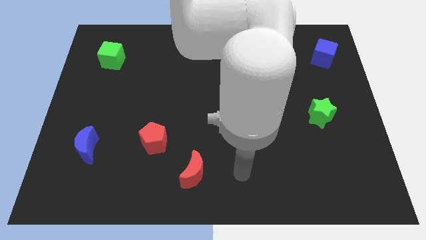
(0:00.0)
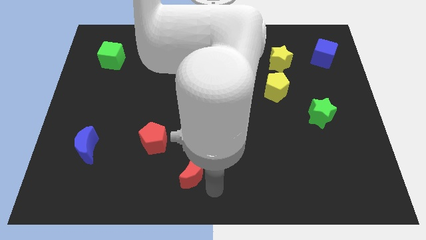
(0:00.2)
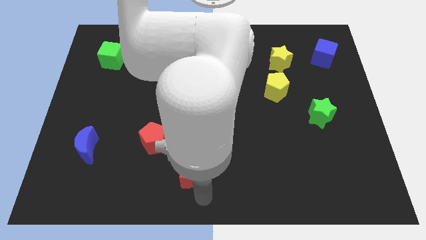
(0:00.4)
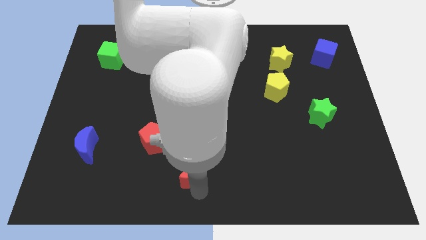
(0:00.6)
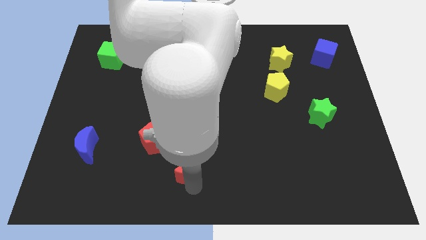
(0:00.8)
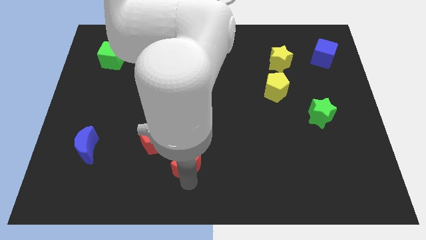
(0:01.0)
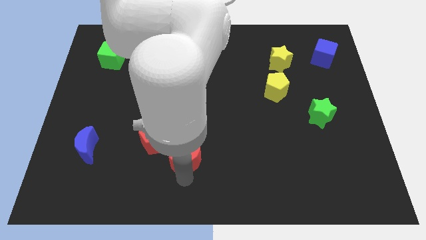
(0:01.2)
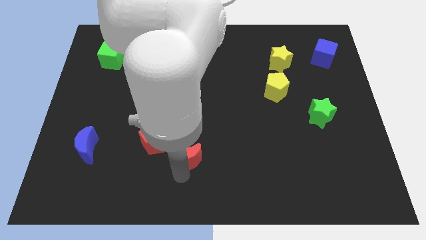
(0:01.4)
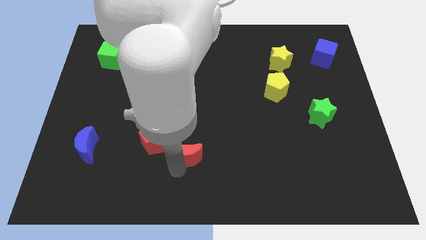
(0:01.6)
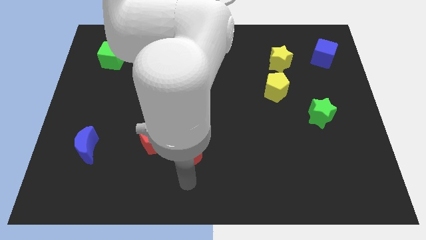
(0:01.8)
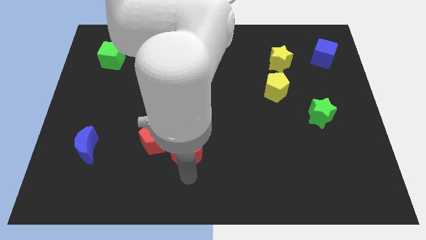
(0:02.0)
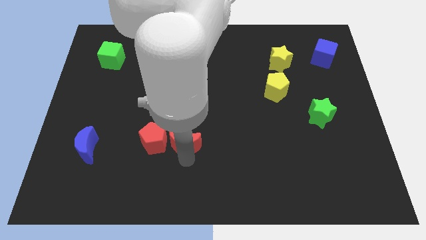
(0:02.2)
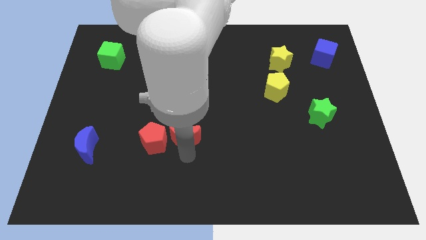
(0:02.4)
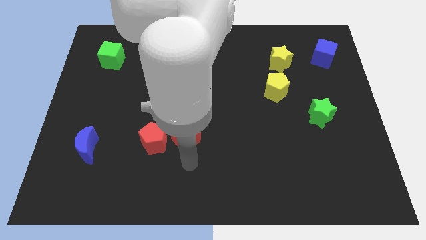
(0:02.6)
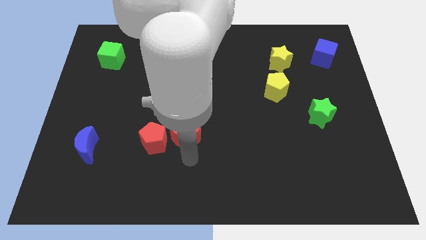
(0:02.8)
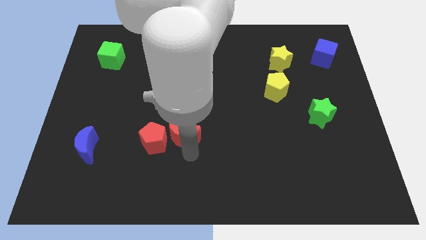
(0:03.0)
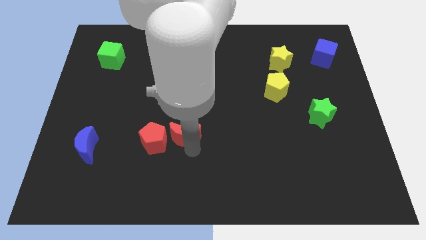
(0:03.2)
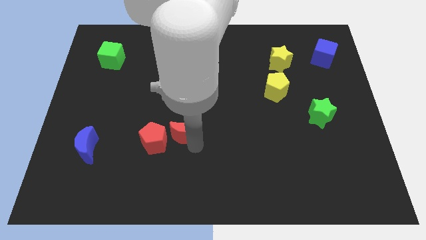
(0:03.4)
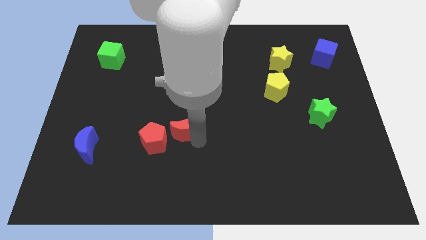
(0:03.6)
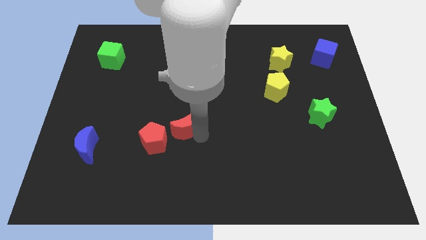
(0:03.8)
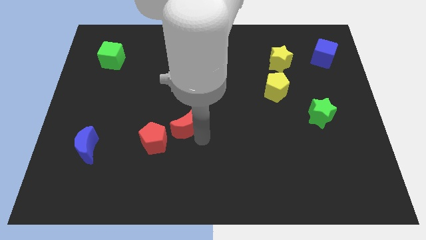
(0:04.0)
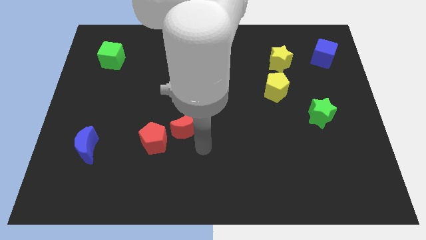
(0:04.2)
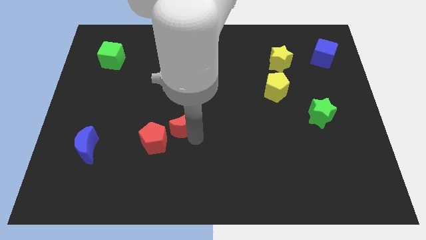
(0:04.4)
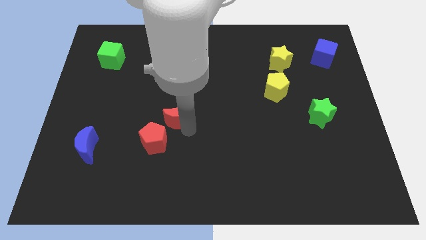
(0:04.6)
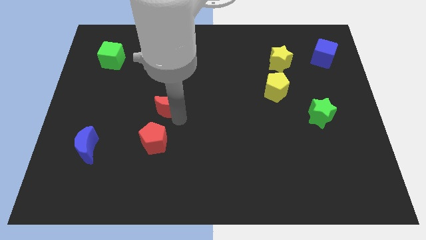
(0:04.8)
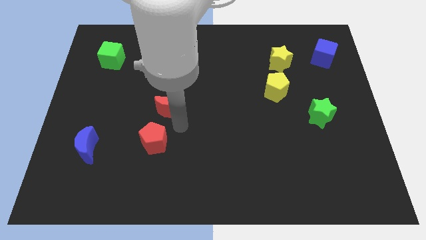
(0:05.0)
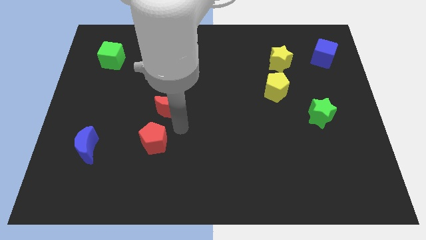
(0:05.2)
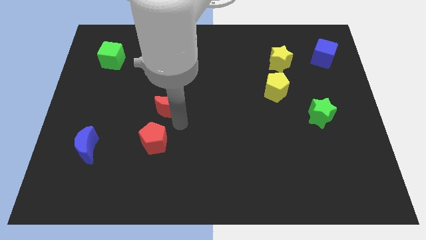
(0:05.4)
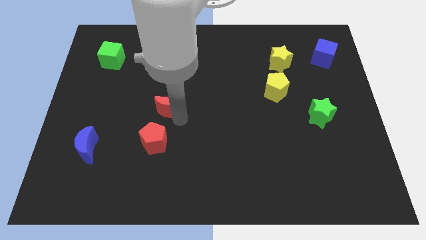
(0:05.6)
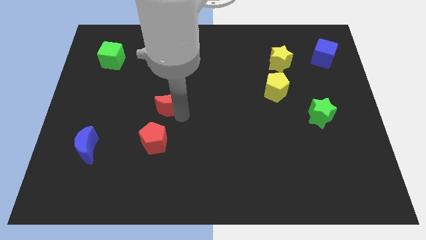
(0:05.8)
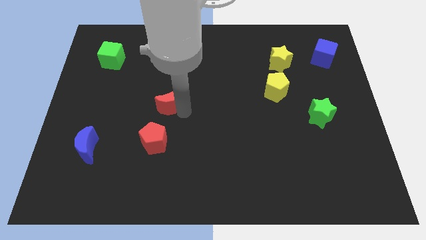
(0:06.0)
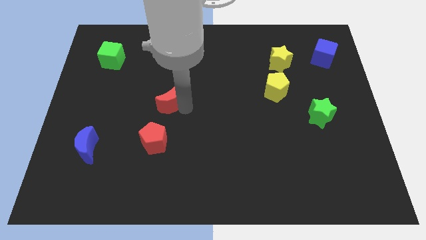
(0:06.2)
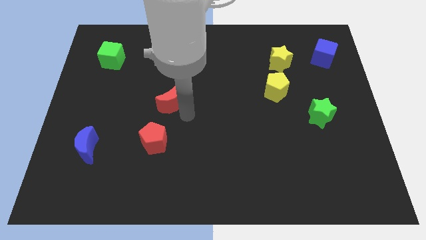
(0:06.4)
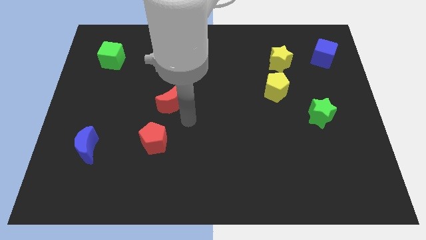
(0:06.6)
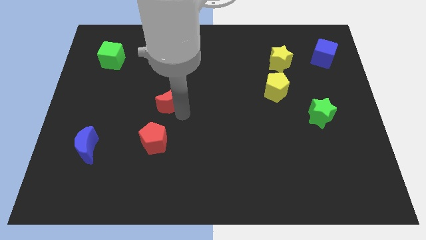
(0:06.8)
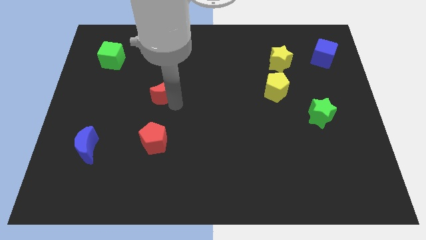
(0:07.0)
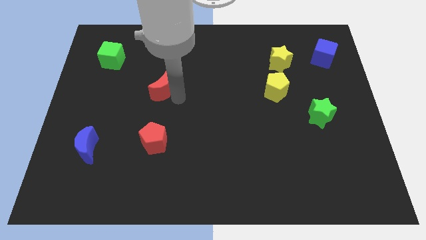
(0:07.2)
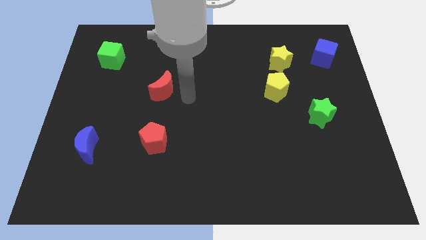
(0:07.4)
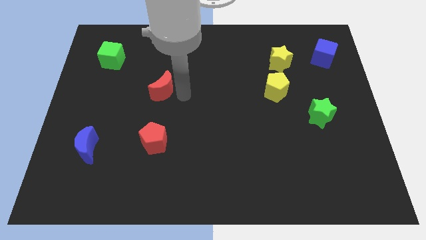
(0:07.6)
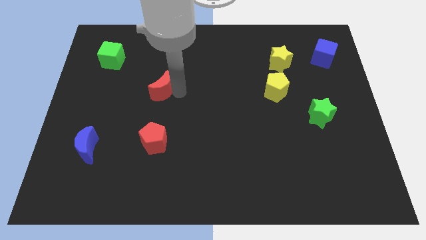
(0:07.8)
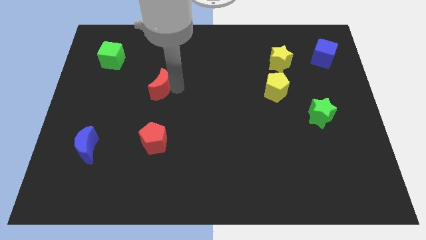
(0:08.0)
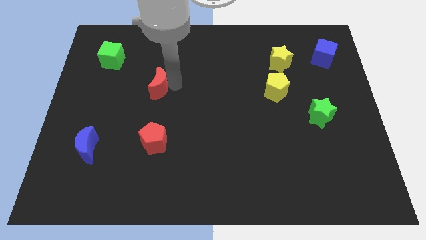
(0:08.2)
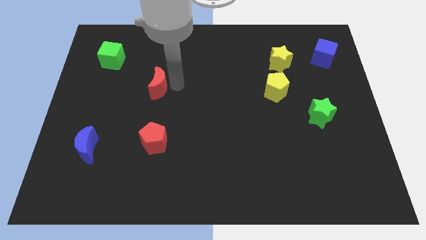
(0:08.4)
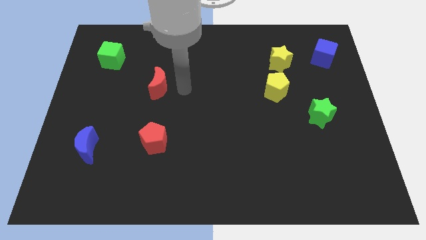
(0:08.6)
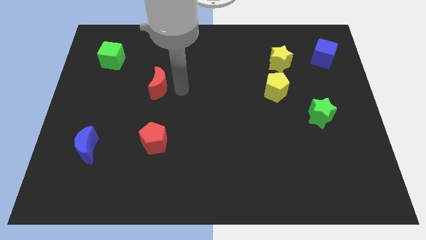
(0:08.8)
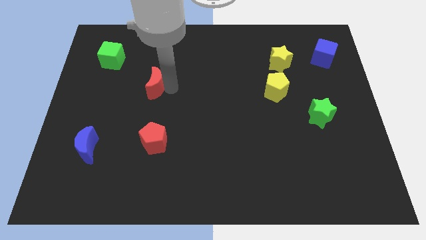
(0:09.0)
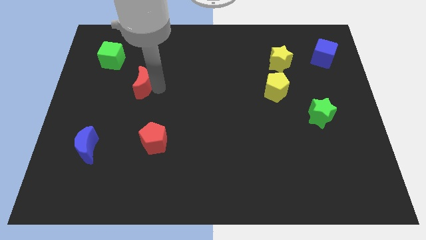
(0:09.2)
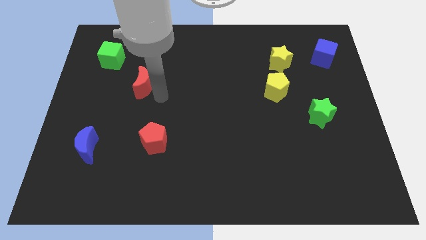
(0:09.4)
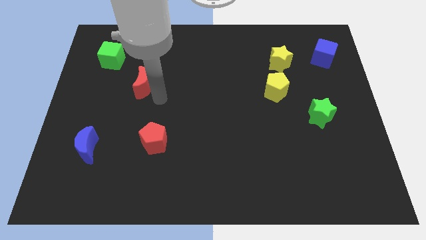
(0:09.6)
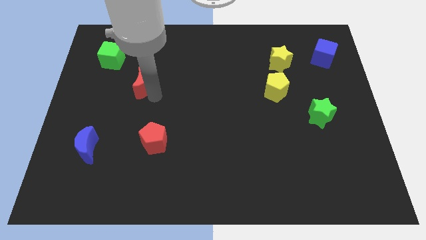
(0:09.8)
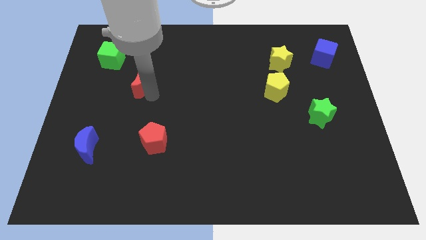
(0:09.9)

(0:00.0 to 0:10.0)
push the red moon diagonally down and to the right of the green cube

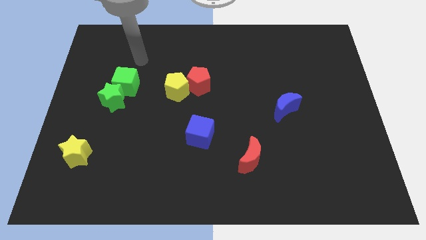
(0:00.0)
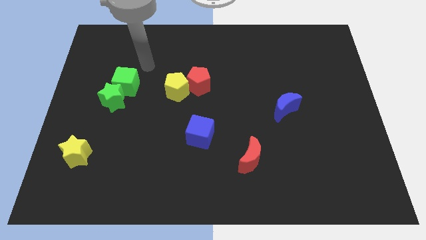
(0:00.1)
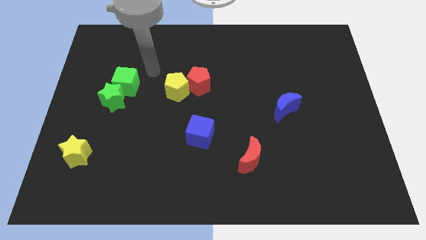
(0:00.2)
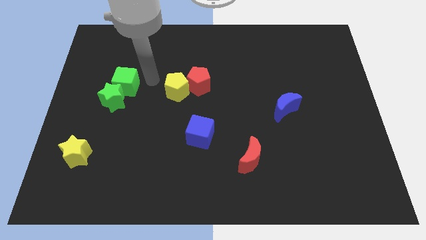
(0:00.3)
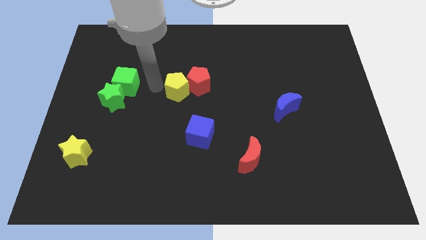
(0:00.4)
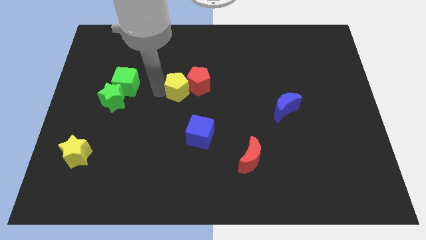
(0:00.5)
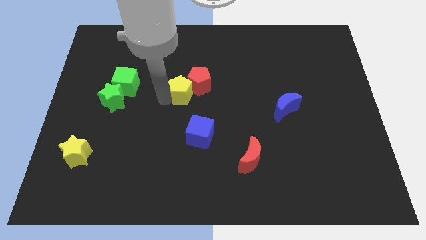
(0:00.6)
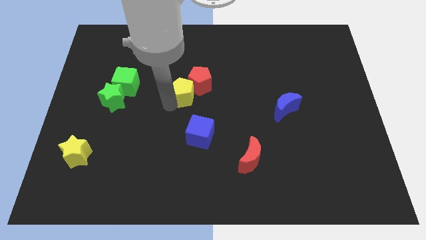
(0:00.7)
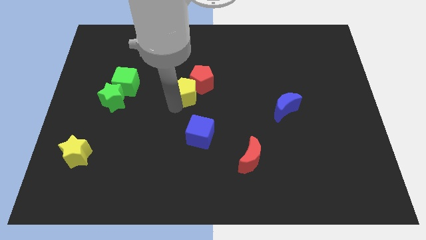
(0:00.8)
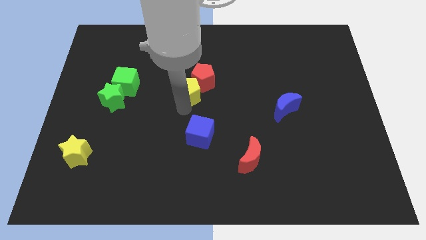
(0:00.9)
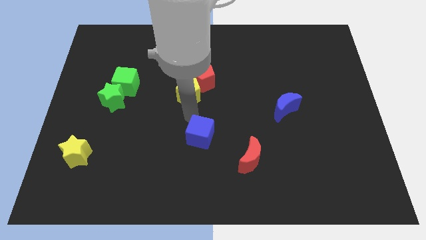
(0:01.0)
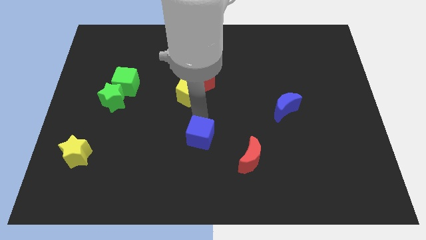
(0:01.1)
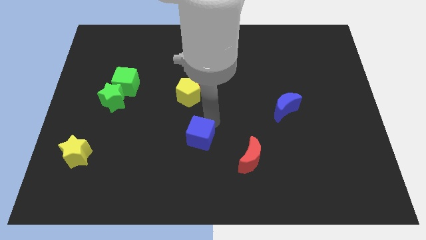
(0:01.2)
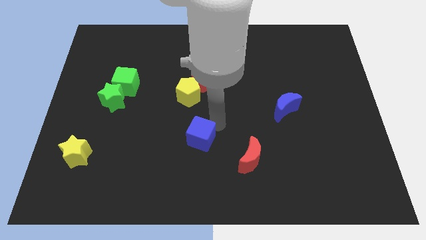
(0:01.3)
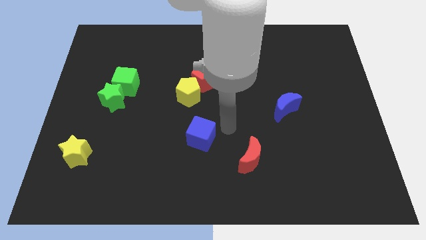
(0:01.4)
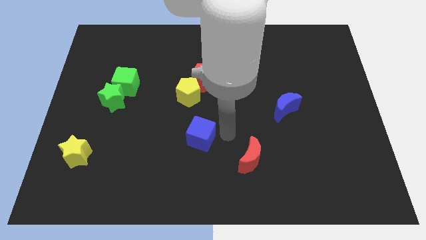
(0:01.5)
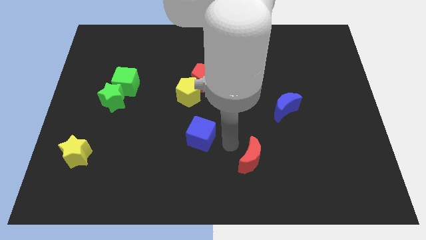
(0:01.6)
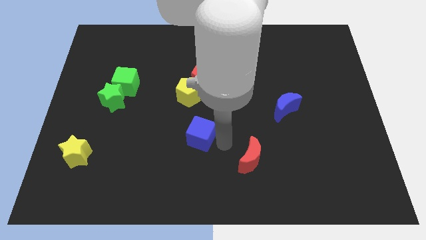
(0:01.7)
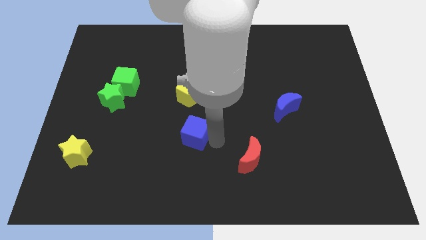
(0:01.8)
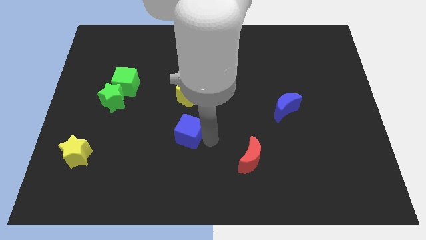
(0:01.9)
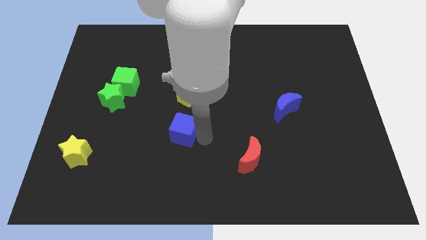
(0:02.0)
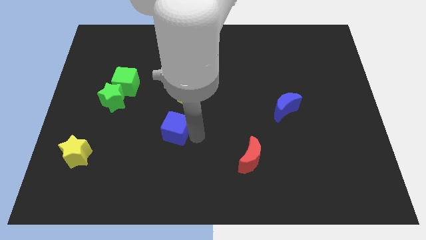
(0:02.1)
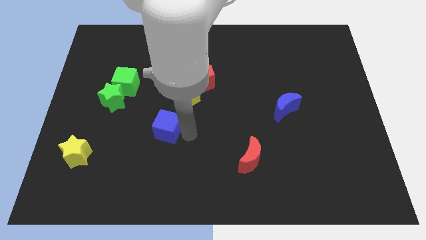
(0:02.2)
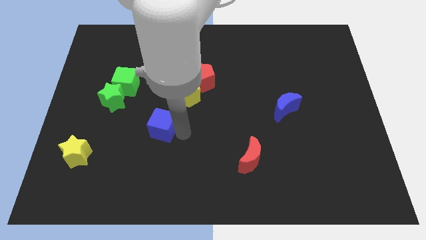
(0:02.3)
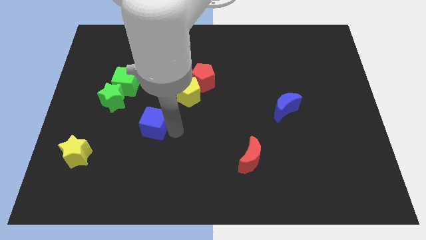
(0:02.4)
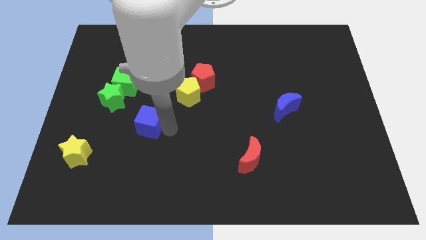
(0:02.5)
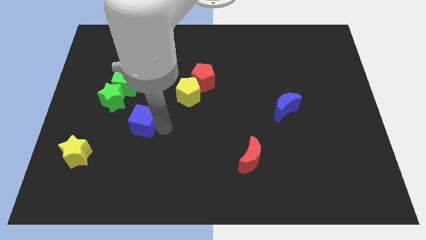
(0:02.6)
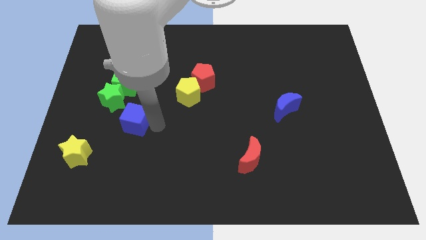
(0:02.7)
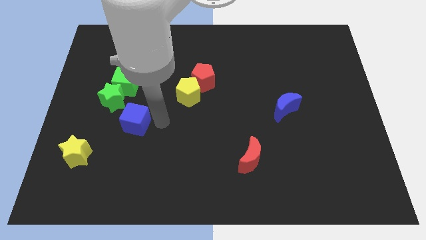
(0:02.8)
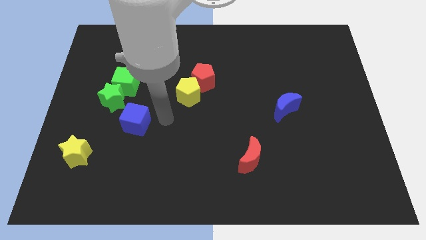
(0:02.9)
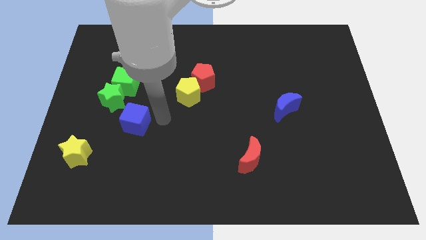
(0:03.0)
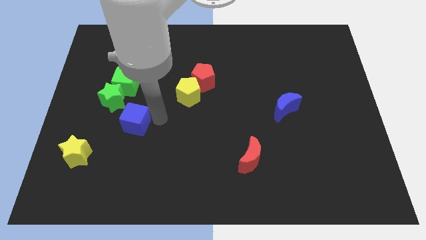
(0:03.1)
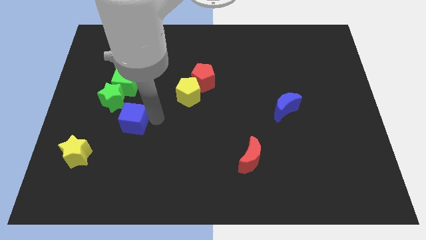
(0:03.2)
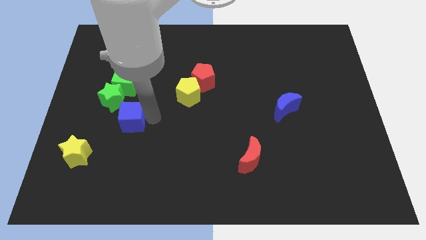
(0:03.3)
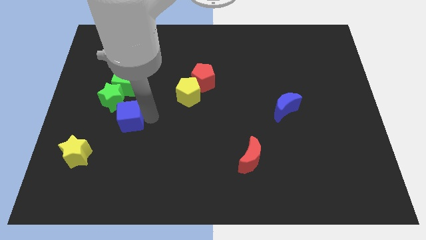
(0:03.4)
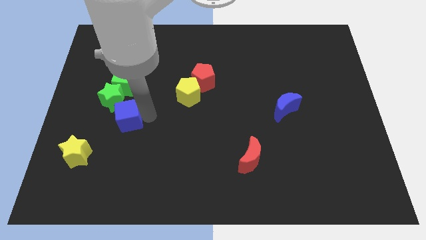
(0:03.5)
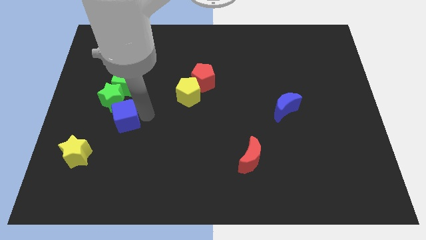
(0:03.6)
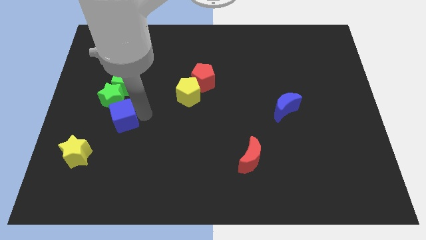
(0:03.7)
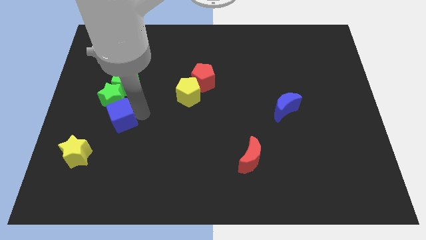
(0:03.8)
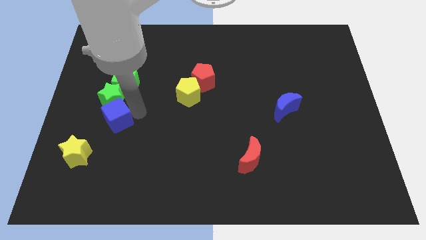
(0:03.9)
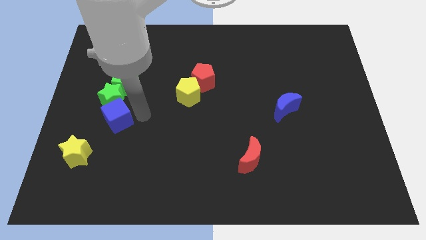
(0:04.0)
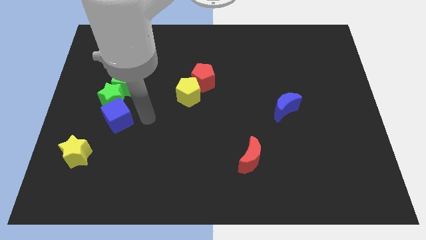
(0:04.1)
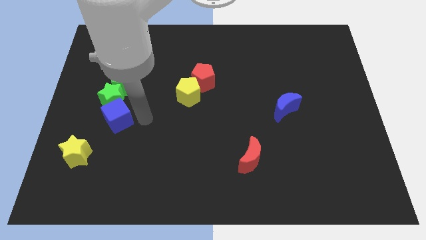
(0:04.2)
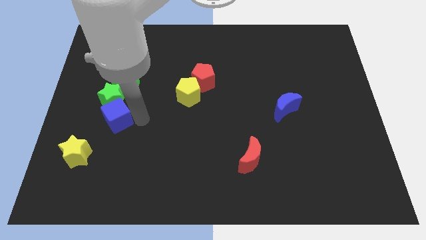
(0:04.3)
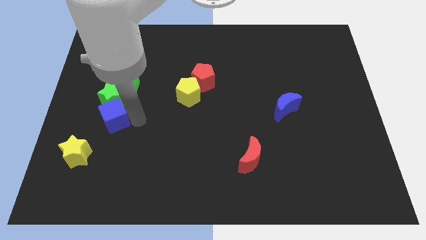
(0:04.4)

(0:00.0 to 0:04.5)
put the blue cube to the bottom left side of the green star
